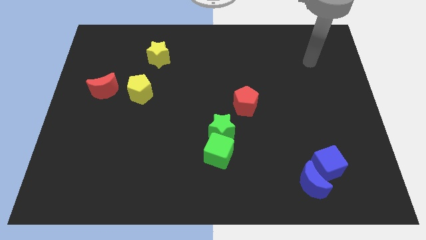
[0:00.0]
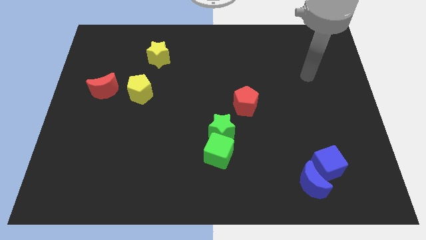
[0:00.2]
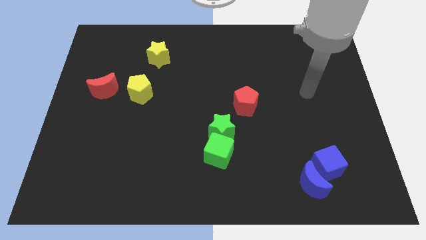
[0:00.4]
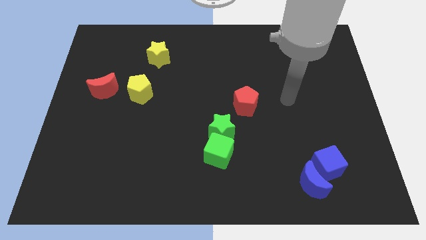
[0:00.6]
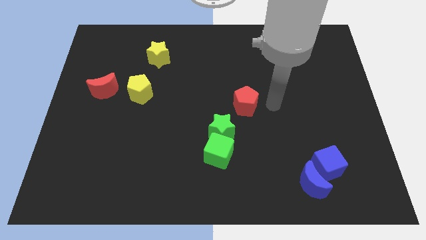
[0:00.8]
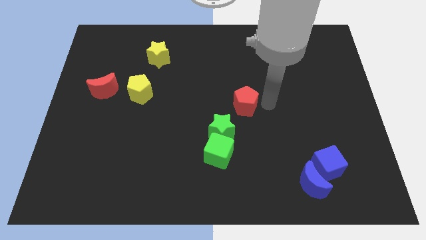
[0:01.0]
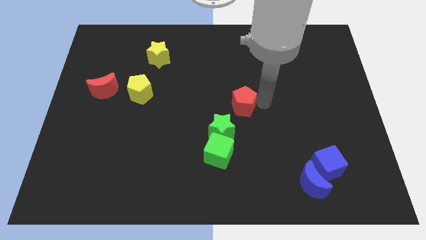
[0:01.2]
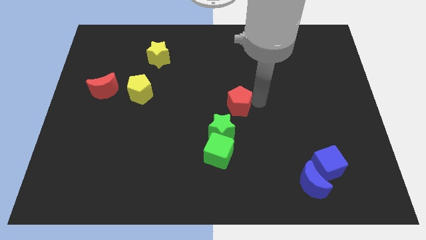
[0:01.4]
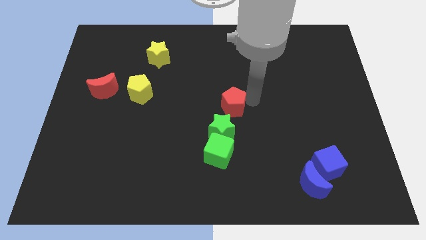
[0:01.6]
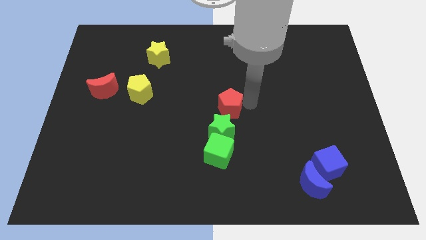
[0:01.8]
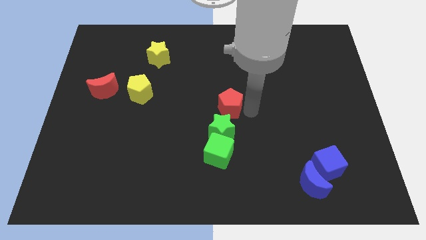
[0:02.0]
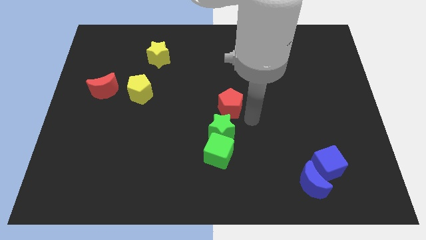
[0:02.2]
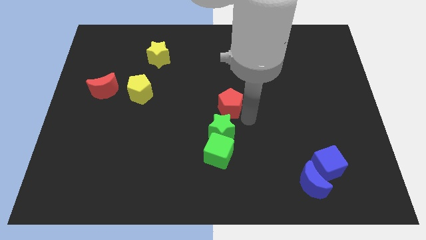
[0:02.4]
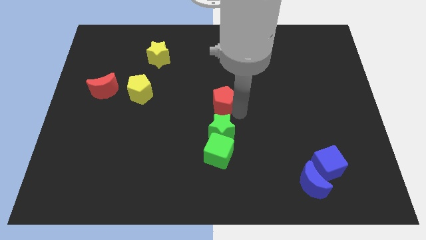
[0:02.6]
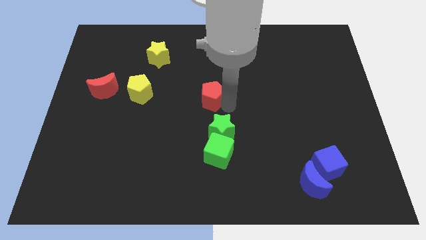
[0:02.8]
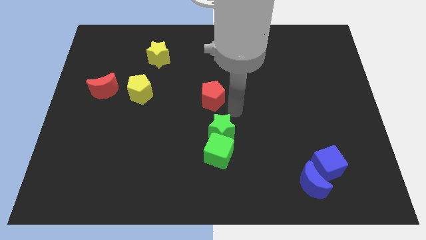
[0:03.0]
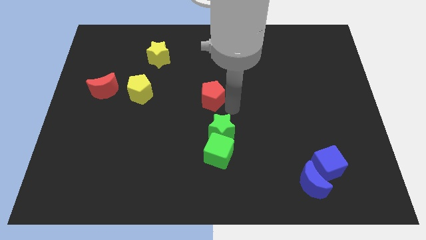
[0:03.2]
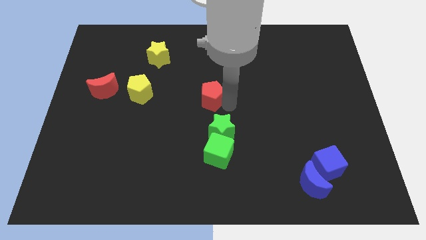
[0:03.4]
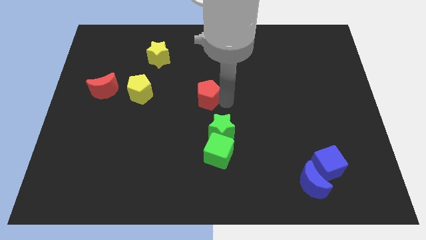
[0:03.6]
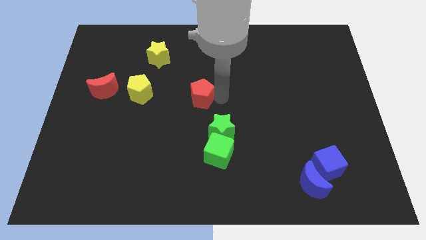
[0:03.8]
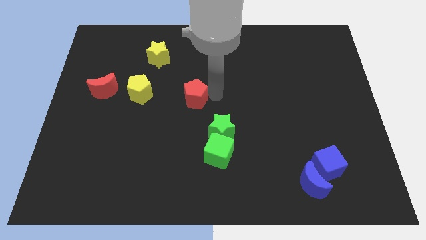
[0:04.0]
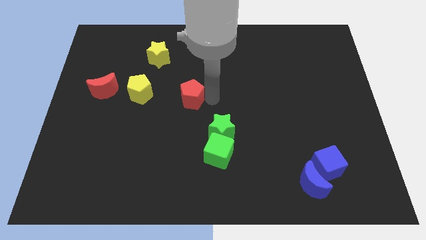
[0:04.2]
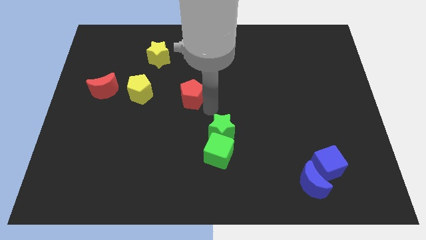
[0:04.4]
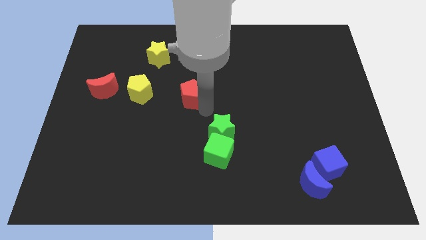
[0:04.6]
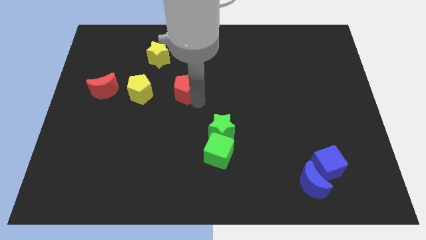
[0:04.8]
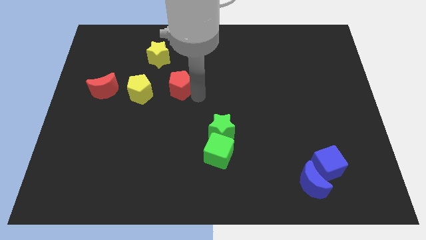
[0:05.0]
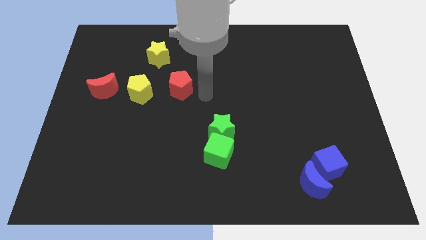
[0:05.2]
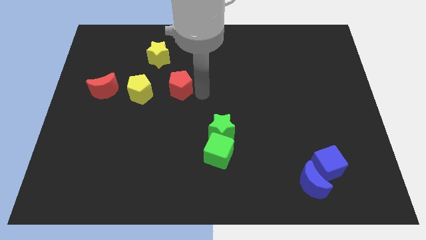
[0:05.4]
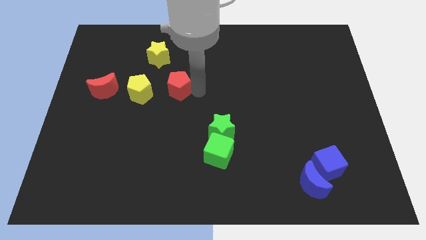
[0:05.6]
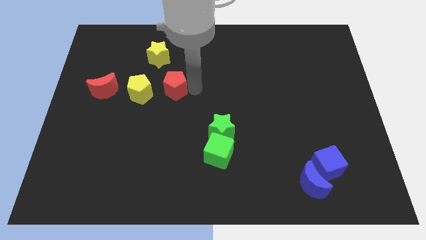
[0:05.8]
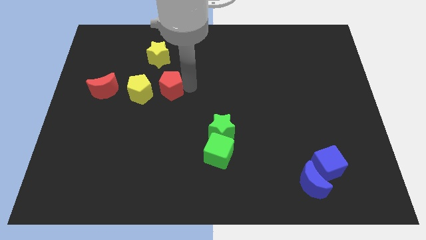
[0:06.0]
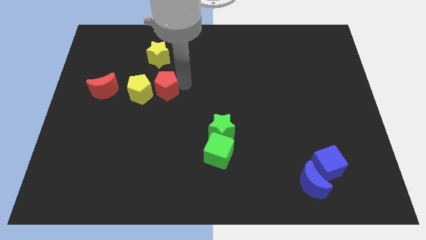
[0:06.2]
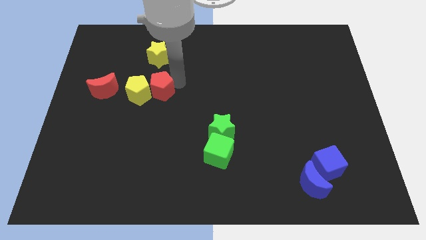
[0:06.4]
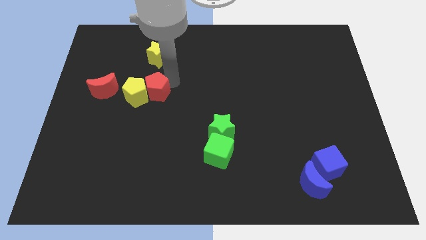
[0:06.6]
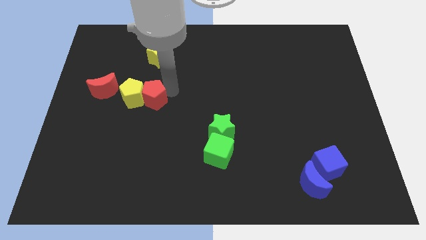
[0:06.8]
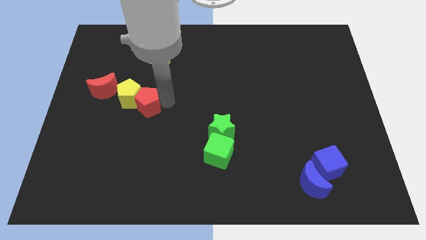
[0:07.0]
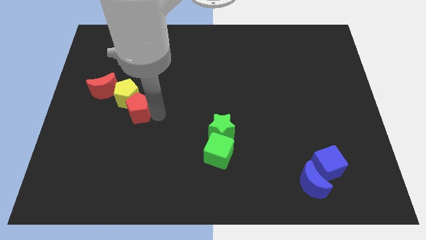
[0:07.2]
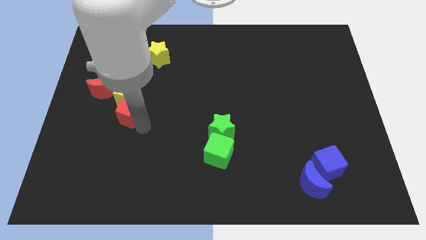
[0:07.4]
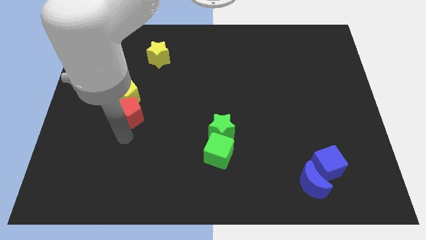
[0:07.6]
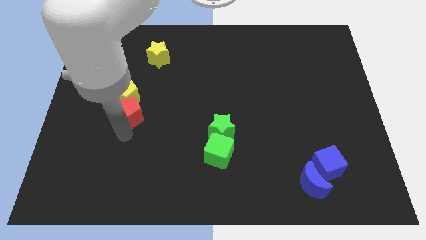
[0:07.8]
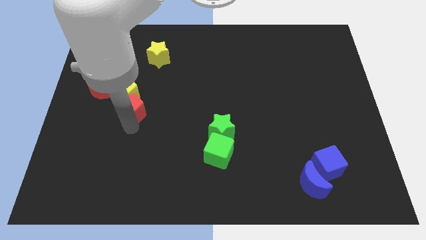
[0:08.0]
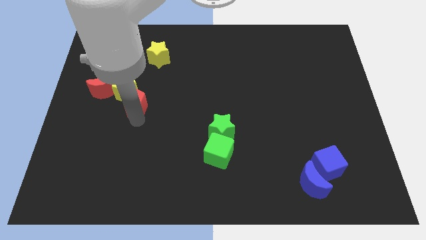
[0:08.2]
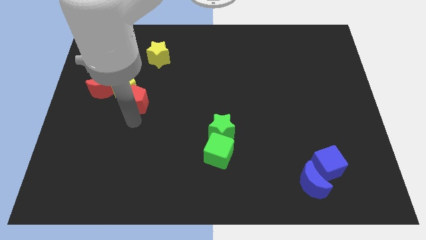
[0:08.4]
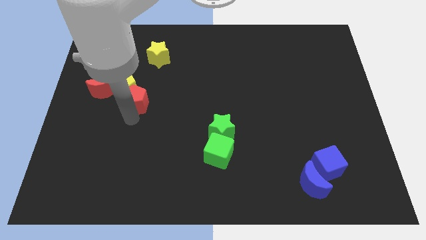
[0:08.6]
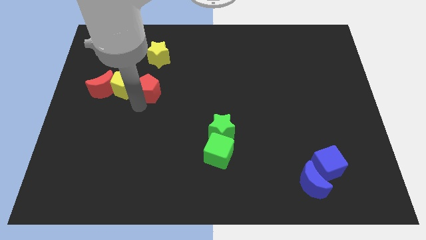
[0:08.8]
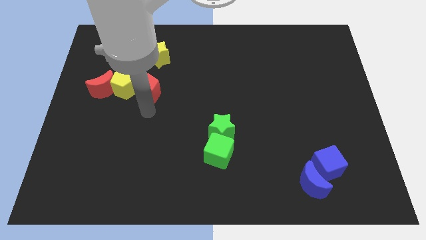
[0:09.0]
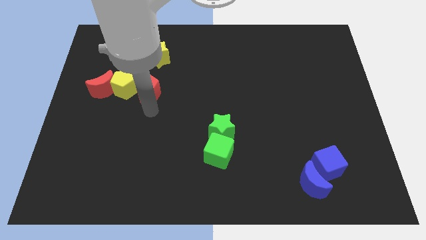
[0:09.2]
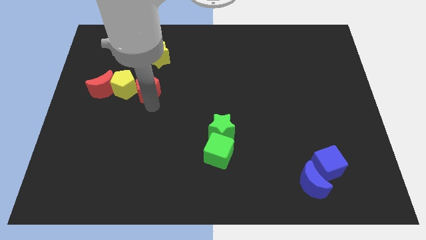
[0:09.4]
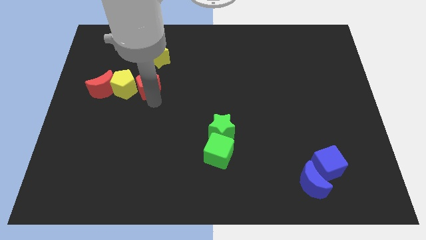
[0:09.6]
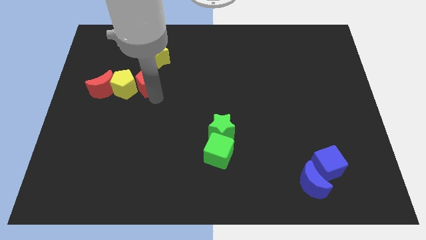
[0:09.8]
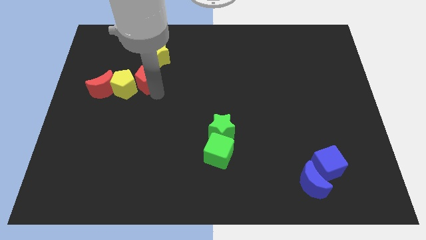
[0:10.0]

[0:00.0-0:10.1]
push the red pentagon to the bottom left side of the yellow star

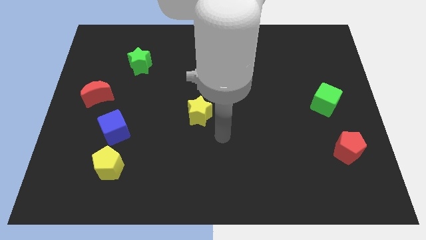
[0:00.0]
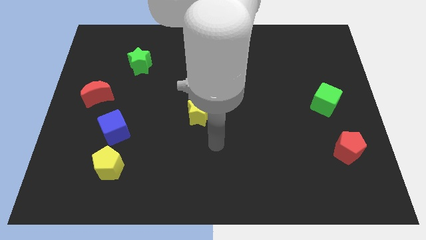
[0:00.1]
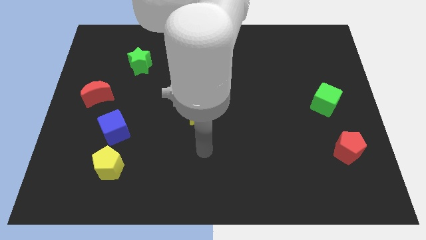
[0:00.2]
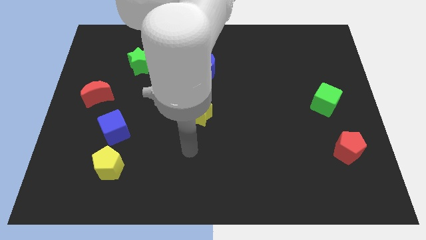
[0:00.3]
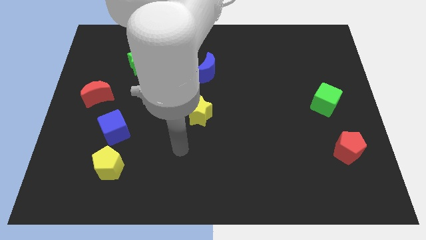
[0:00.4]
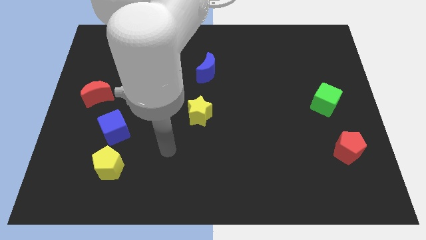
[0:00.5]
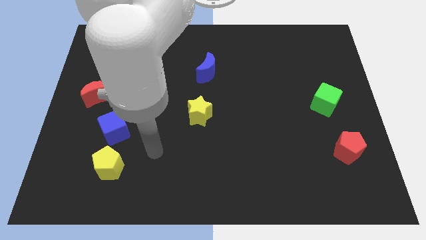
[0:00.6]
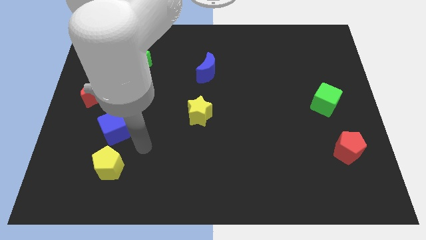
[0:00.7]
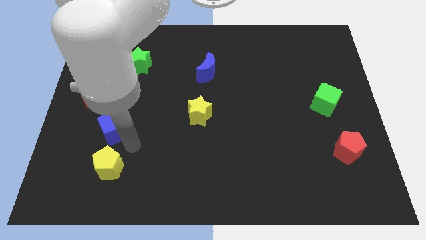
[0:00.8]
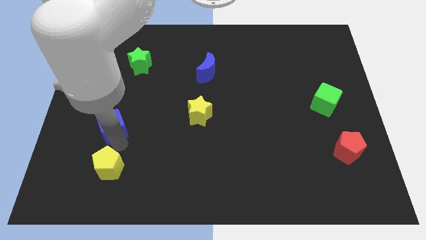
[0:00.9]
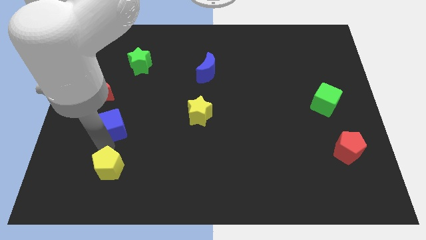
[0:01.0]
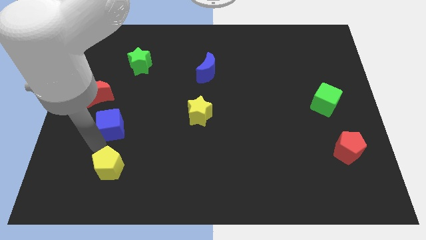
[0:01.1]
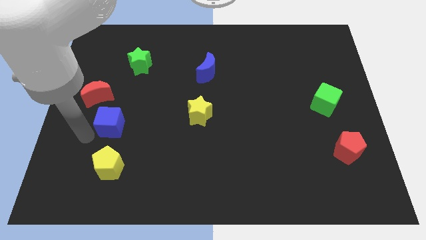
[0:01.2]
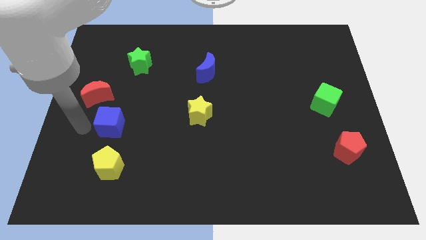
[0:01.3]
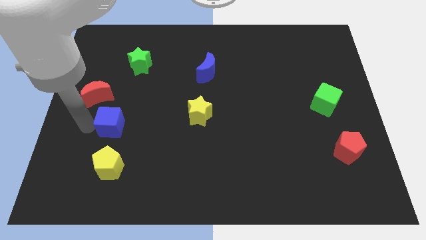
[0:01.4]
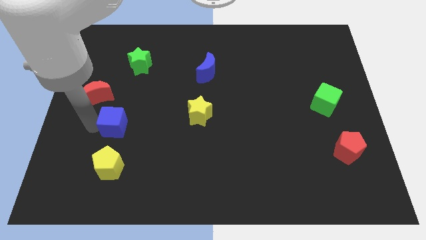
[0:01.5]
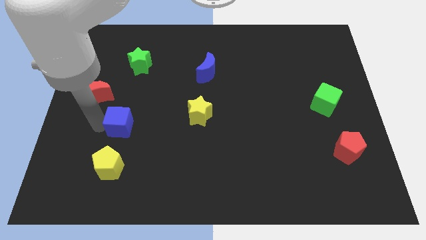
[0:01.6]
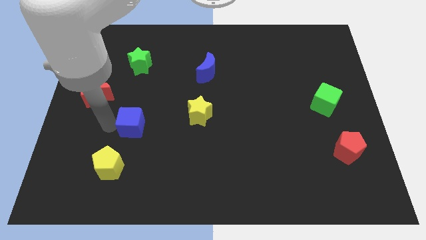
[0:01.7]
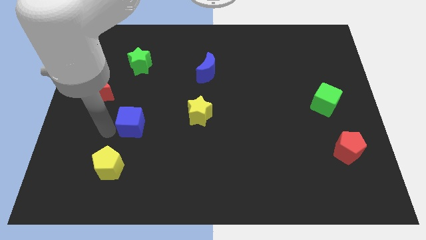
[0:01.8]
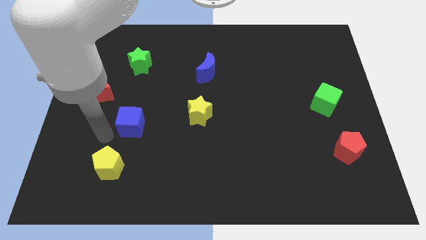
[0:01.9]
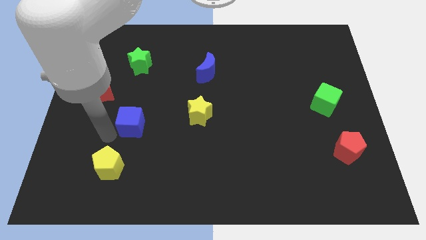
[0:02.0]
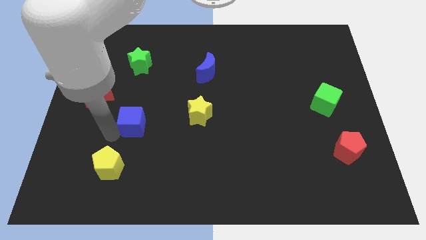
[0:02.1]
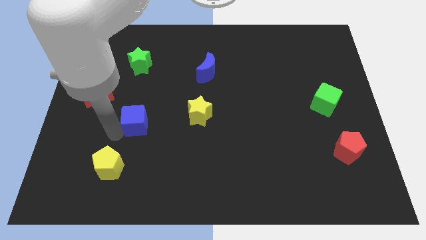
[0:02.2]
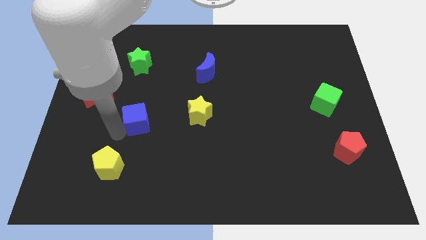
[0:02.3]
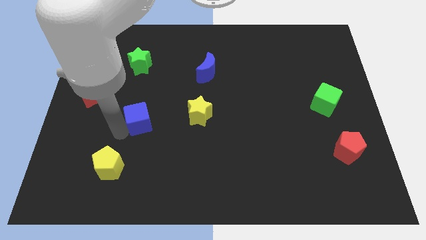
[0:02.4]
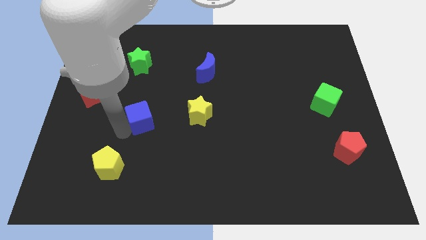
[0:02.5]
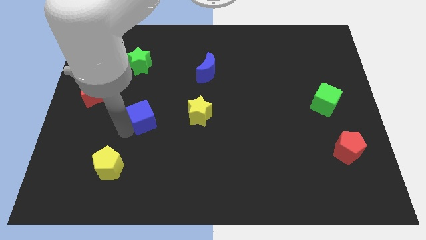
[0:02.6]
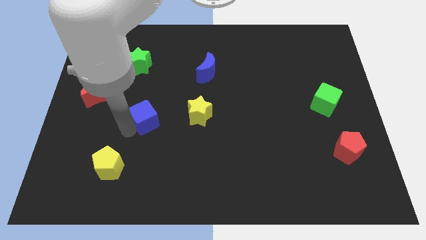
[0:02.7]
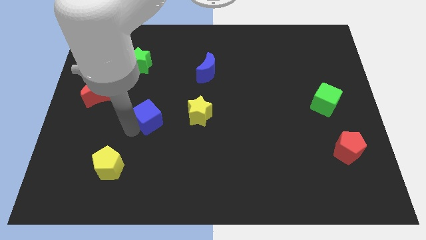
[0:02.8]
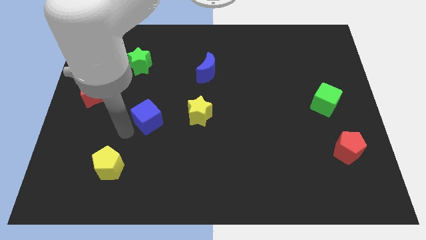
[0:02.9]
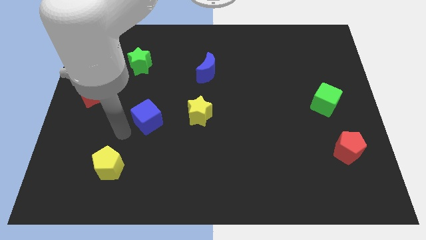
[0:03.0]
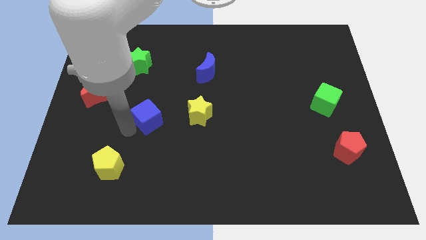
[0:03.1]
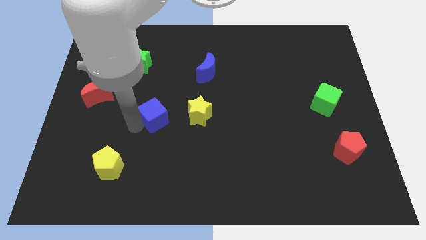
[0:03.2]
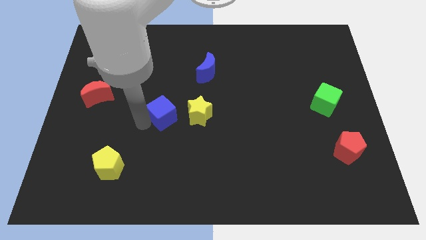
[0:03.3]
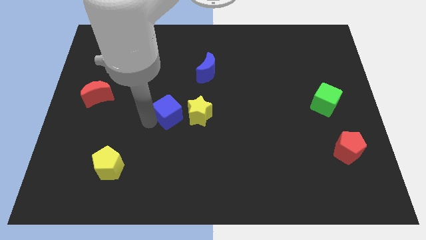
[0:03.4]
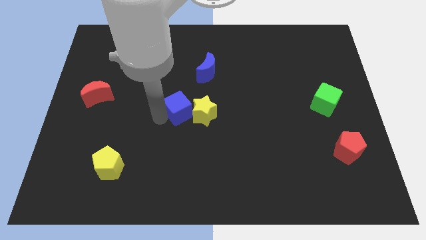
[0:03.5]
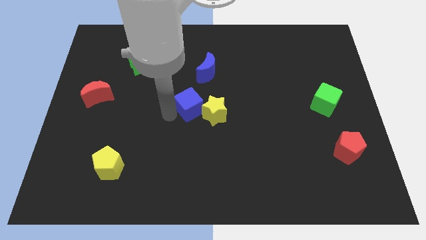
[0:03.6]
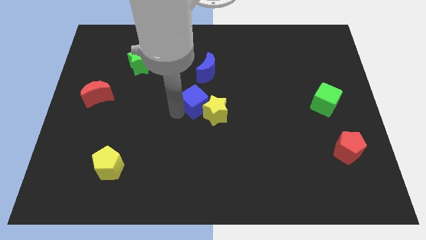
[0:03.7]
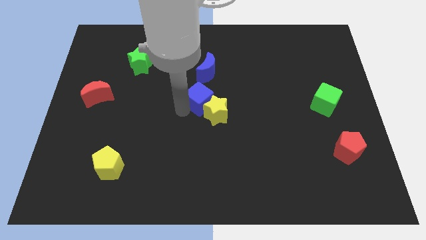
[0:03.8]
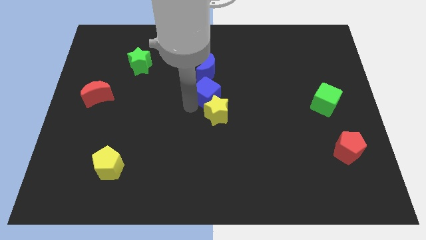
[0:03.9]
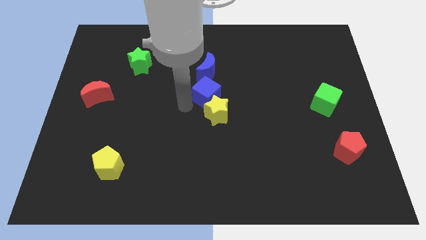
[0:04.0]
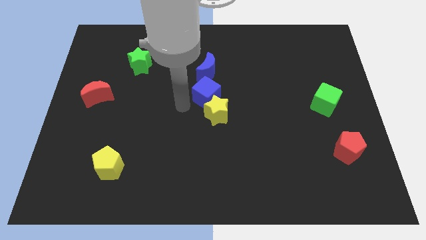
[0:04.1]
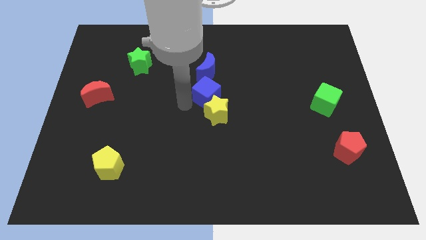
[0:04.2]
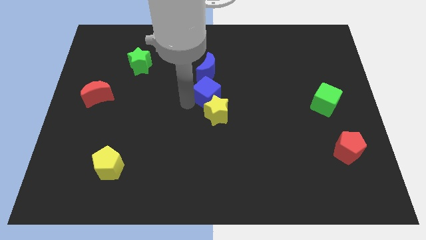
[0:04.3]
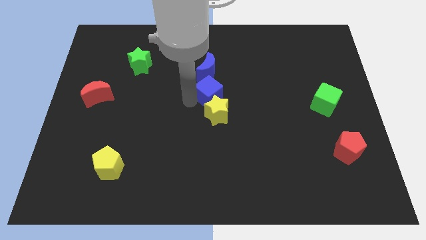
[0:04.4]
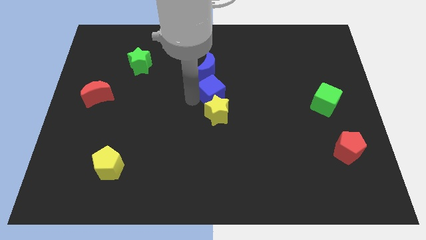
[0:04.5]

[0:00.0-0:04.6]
move the blue cube diagonally down and to the right of the blue moon
